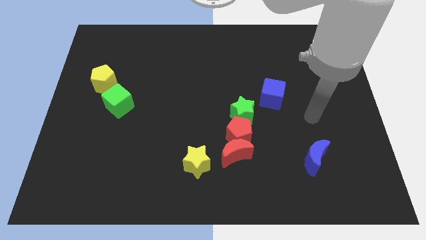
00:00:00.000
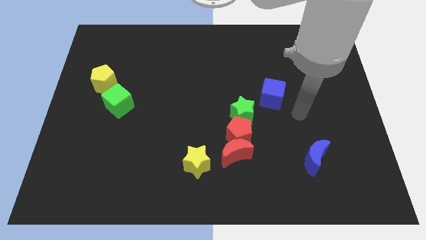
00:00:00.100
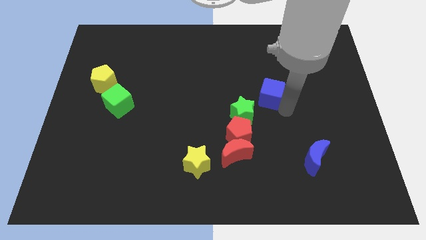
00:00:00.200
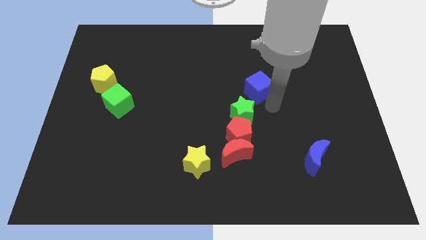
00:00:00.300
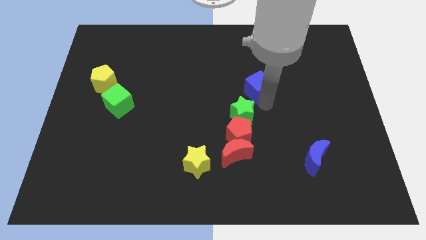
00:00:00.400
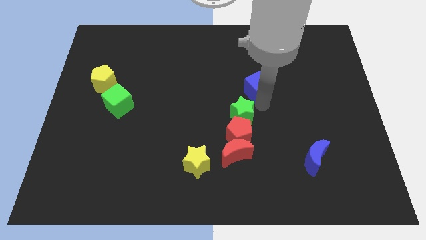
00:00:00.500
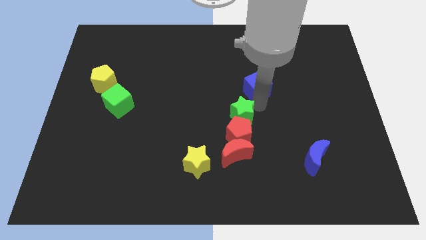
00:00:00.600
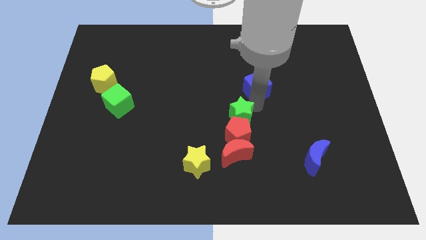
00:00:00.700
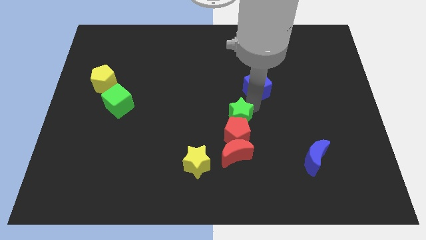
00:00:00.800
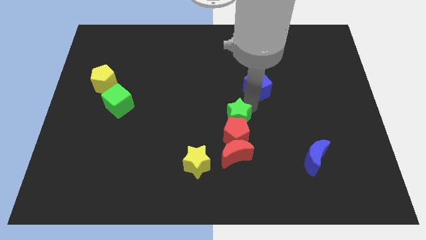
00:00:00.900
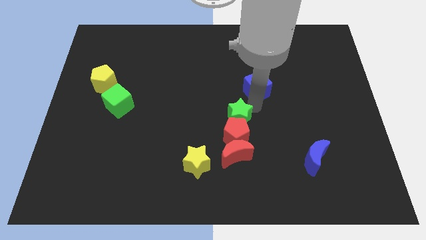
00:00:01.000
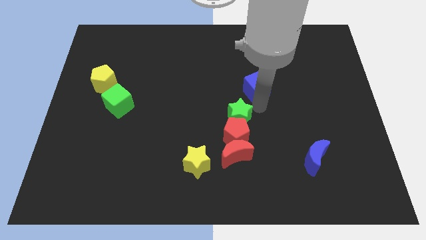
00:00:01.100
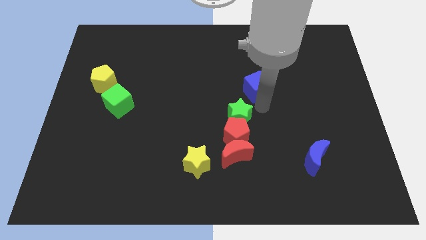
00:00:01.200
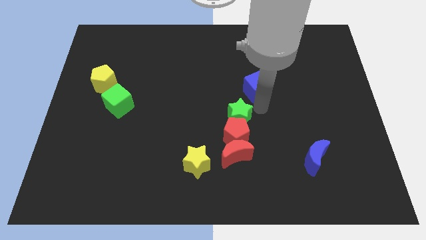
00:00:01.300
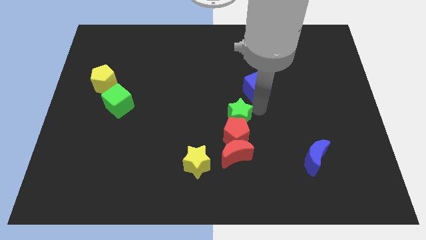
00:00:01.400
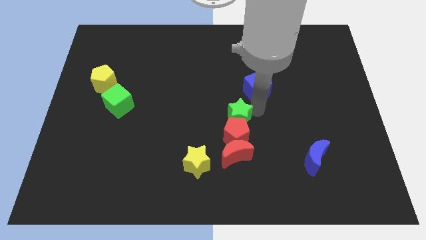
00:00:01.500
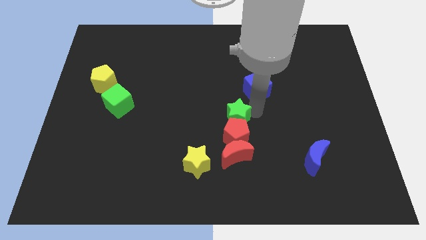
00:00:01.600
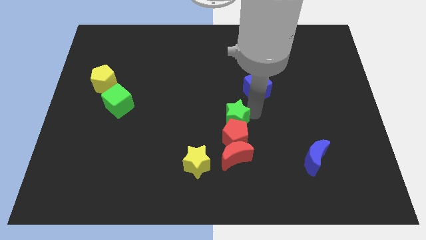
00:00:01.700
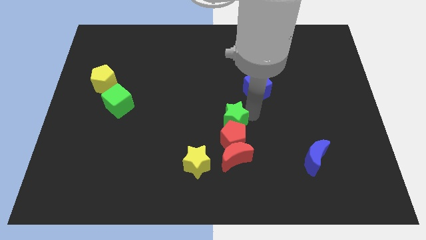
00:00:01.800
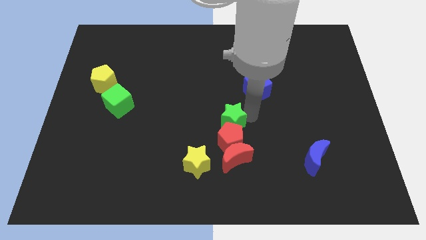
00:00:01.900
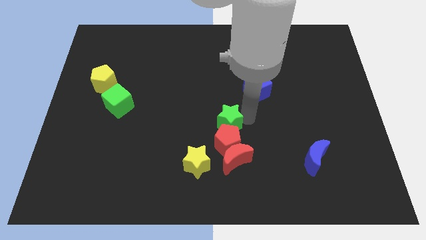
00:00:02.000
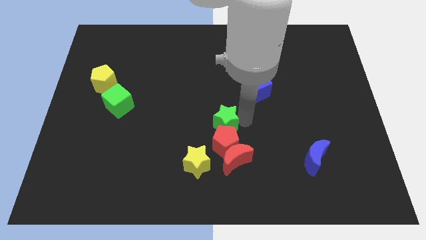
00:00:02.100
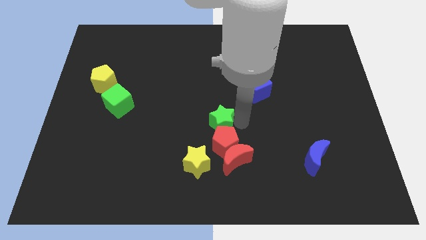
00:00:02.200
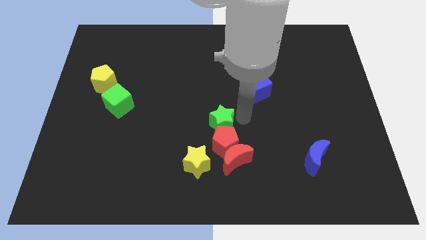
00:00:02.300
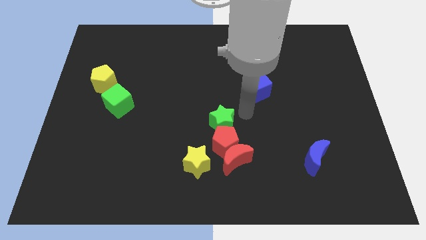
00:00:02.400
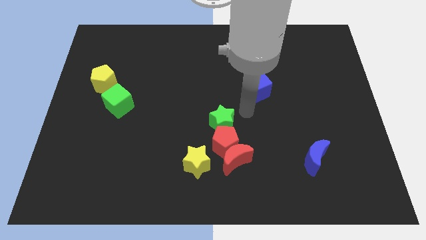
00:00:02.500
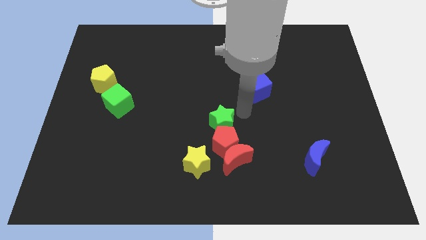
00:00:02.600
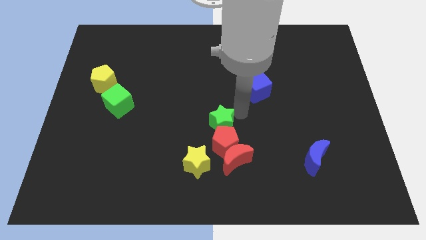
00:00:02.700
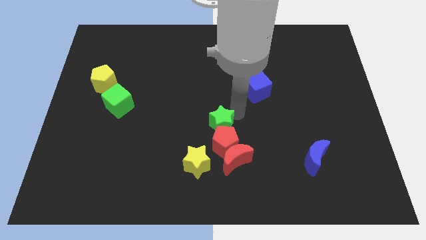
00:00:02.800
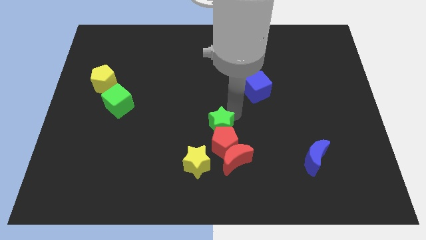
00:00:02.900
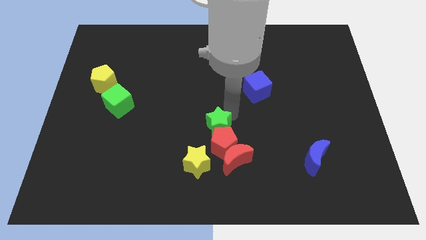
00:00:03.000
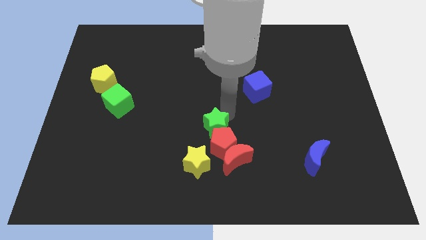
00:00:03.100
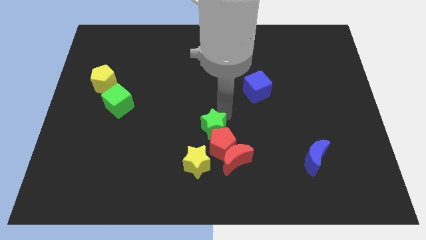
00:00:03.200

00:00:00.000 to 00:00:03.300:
slightly move the green star diagonally down and left

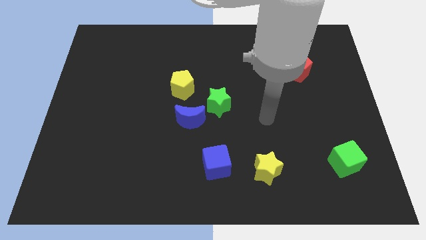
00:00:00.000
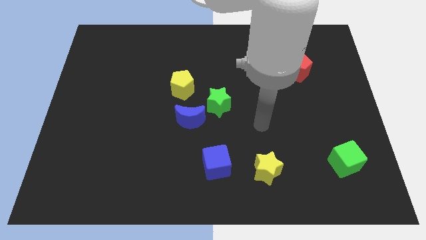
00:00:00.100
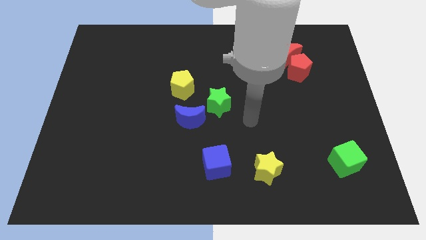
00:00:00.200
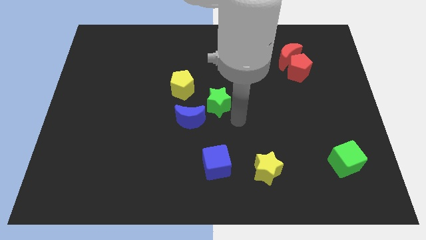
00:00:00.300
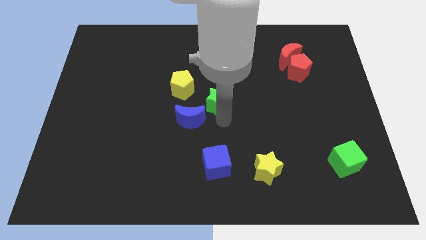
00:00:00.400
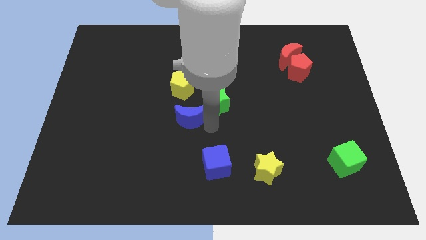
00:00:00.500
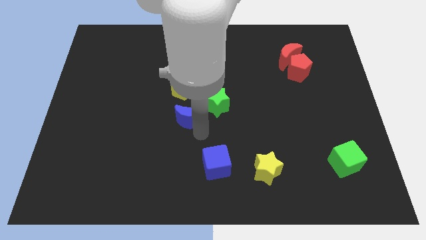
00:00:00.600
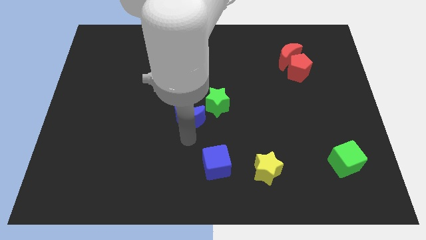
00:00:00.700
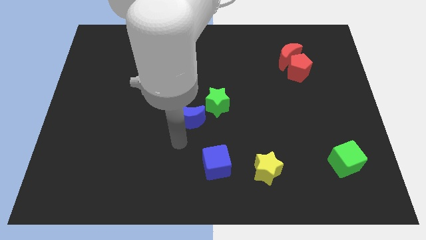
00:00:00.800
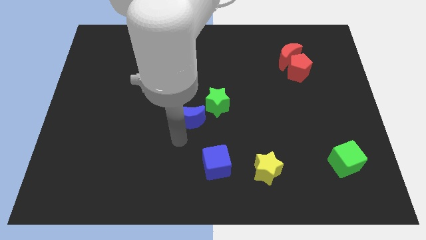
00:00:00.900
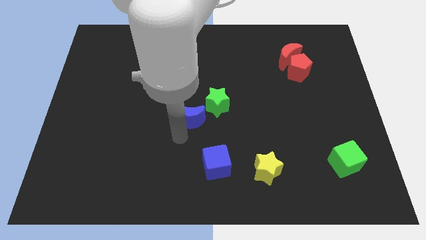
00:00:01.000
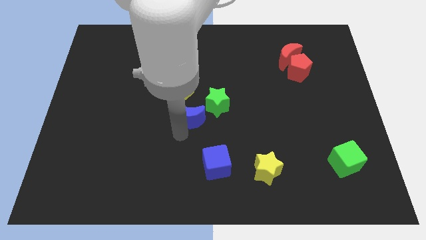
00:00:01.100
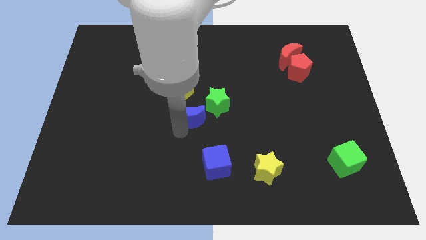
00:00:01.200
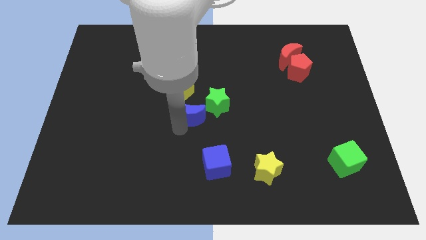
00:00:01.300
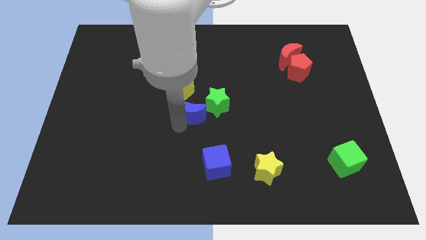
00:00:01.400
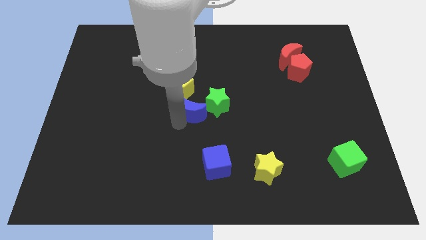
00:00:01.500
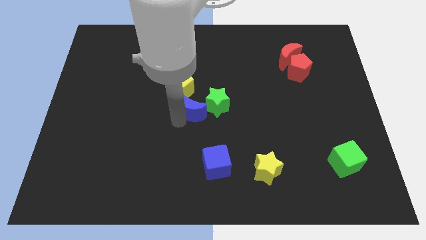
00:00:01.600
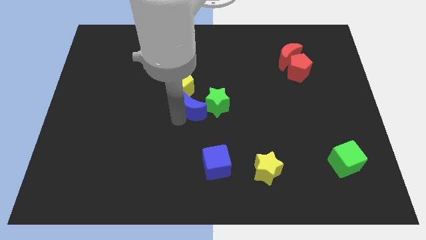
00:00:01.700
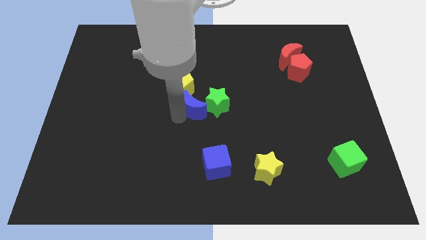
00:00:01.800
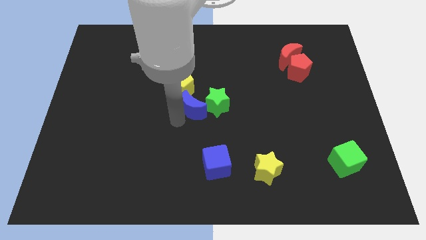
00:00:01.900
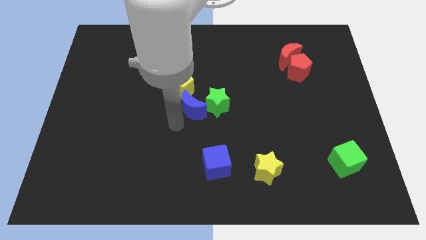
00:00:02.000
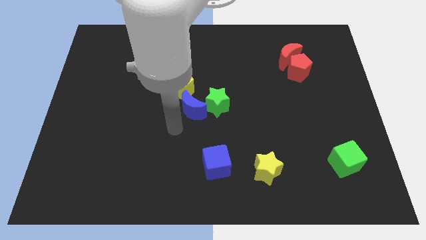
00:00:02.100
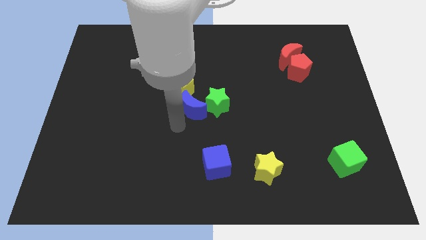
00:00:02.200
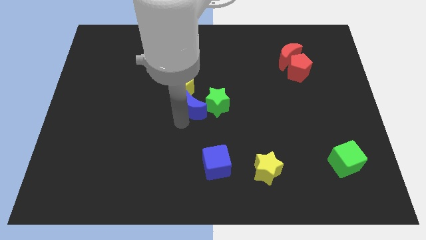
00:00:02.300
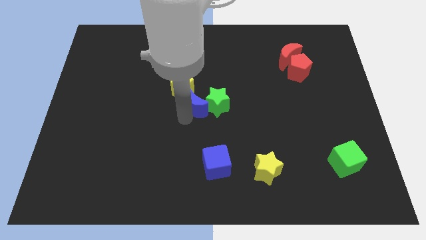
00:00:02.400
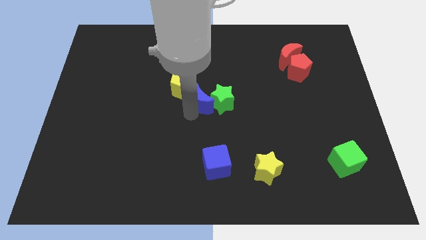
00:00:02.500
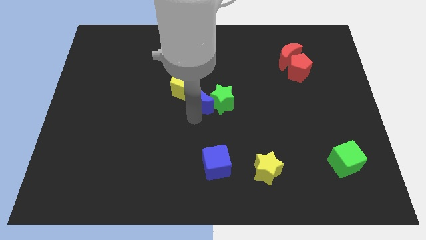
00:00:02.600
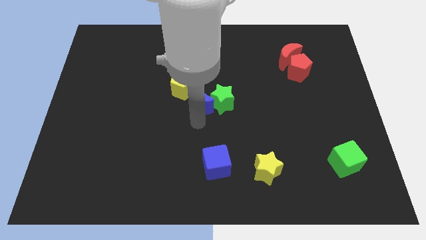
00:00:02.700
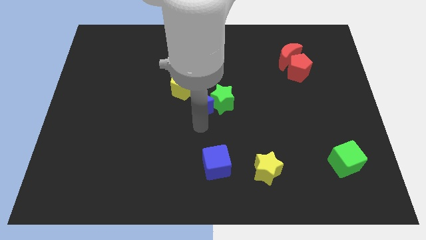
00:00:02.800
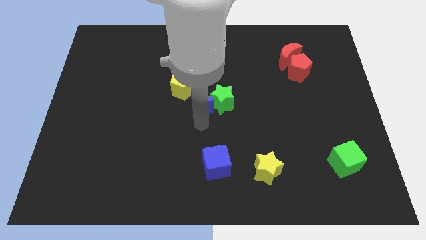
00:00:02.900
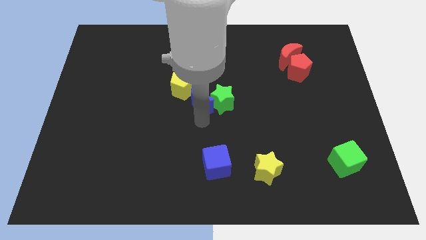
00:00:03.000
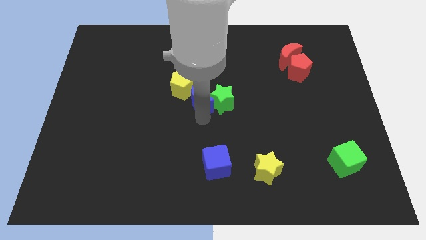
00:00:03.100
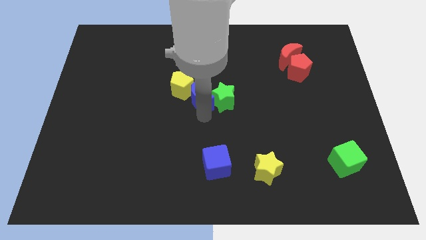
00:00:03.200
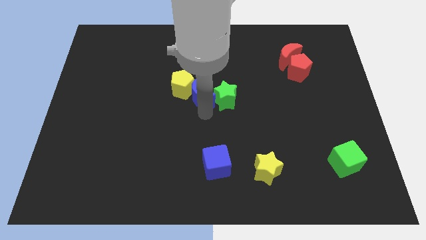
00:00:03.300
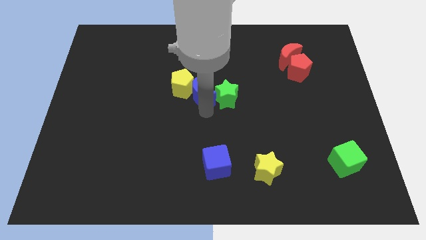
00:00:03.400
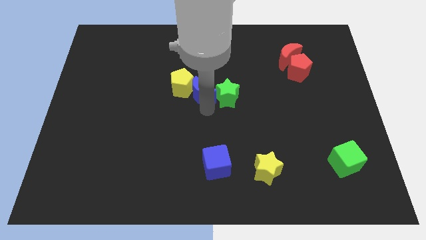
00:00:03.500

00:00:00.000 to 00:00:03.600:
push the blue moon a little bit up

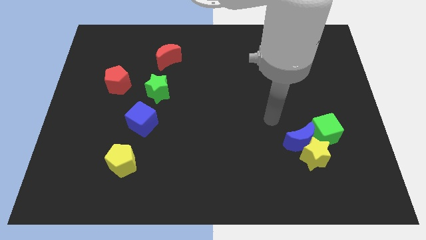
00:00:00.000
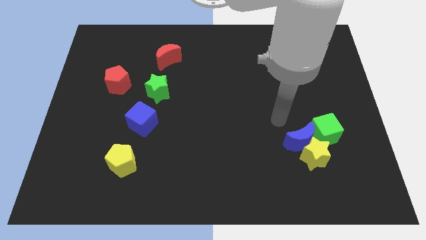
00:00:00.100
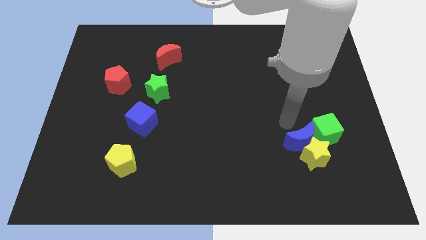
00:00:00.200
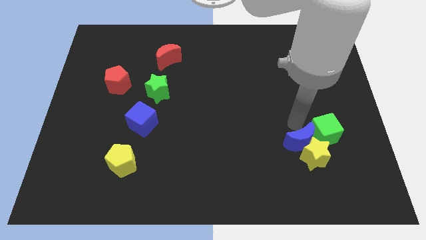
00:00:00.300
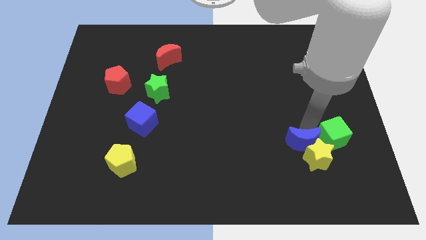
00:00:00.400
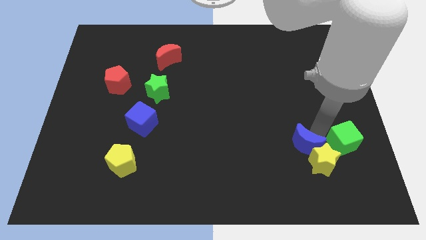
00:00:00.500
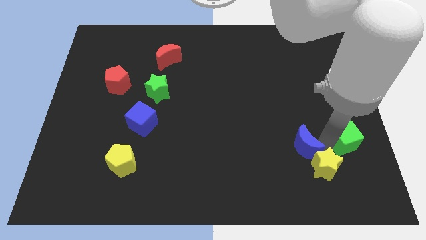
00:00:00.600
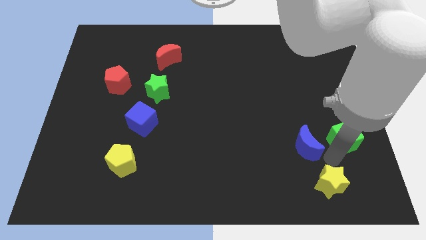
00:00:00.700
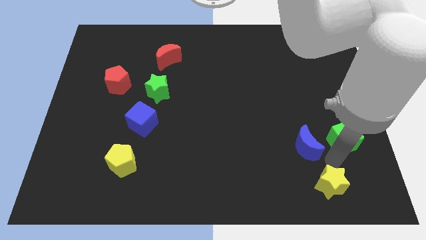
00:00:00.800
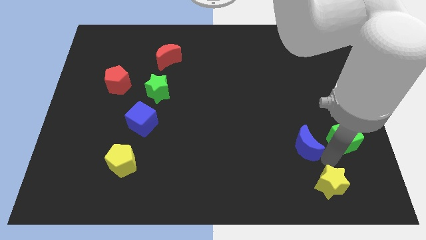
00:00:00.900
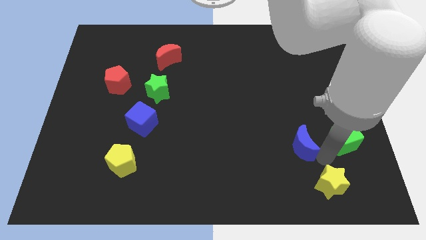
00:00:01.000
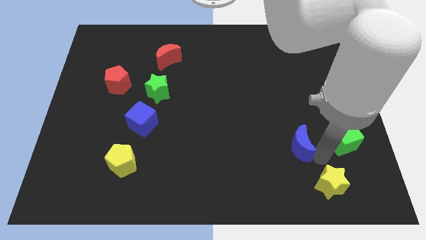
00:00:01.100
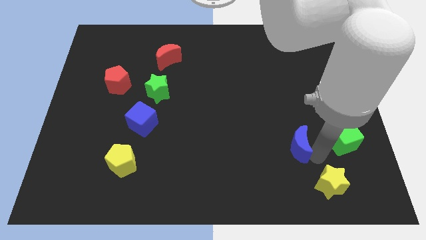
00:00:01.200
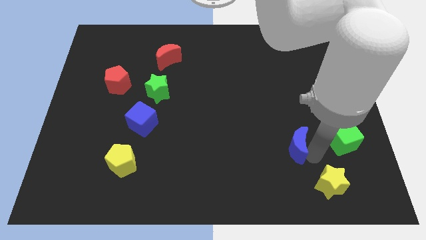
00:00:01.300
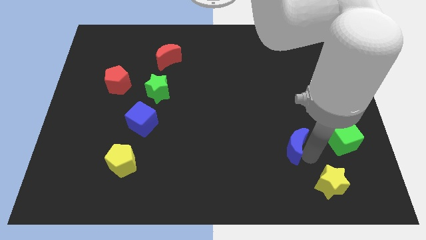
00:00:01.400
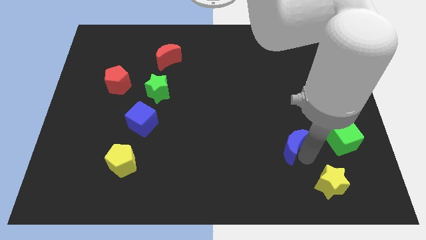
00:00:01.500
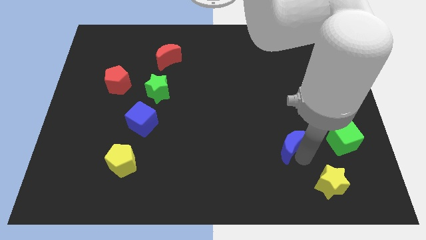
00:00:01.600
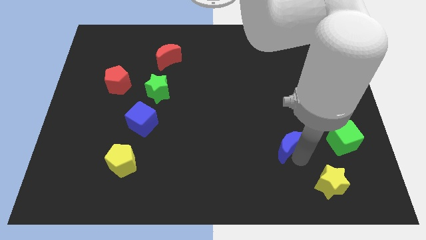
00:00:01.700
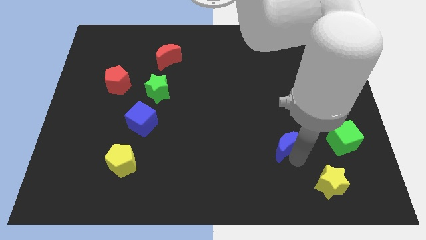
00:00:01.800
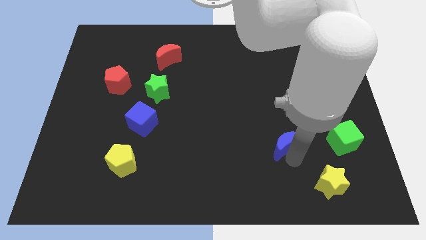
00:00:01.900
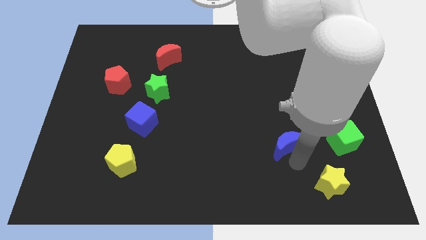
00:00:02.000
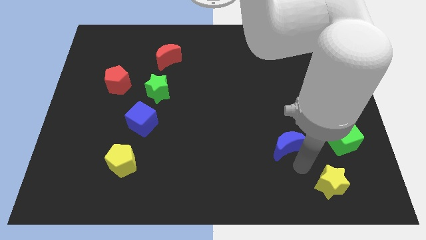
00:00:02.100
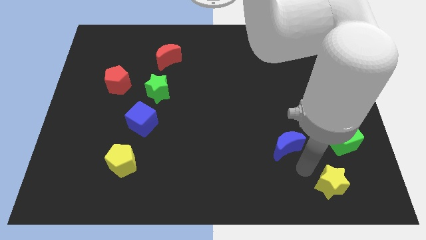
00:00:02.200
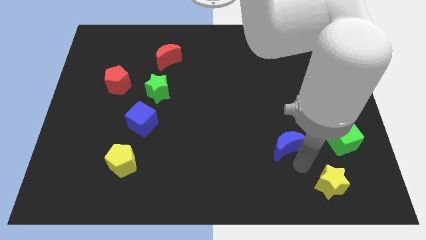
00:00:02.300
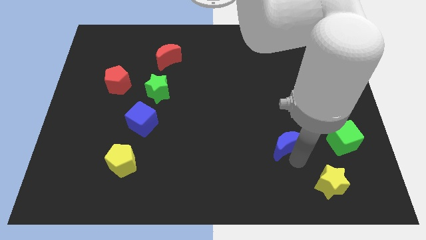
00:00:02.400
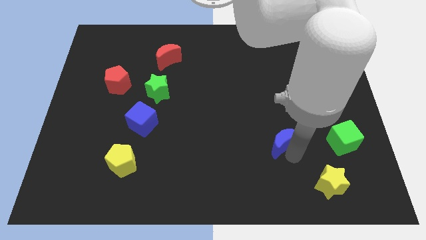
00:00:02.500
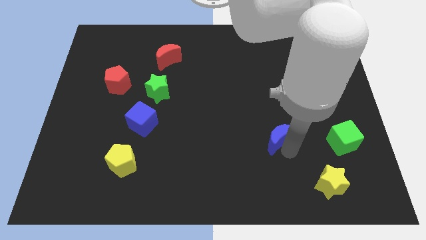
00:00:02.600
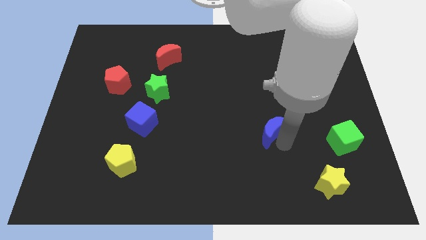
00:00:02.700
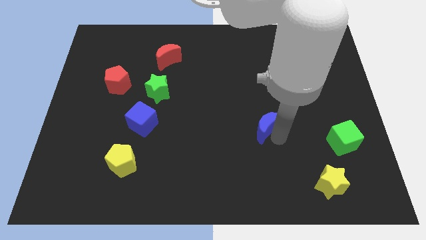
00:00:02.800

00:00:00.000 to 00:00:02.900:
slightly slide the blue moon diagonally upwards and to the left
